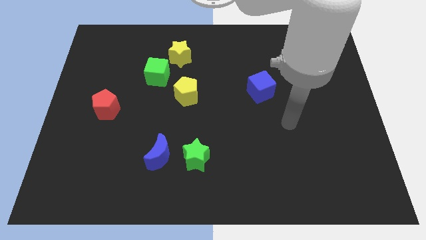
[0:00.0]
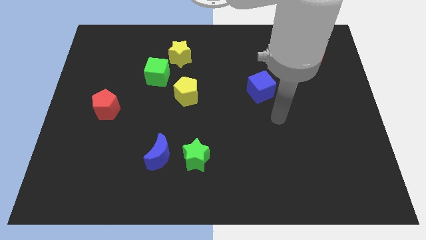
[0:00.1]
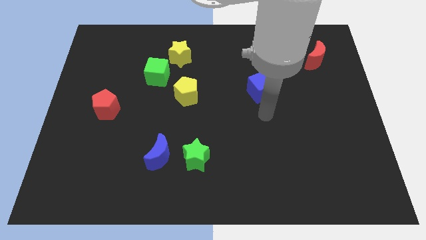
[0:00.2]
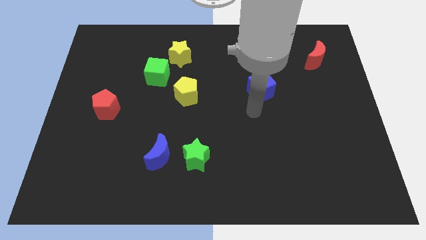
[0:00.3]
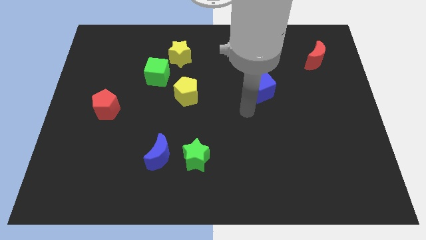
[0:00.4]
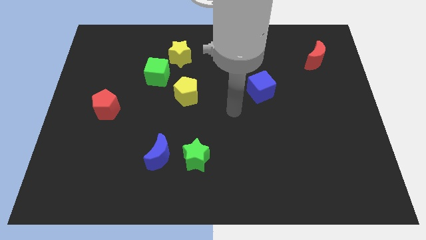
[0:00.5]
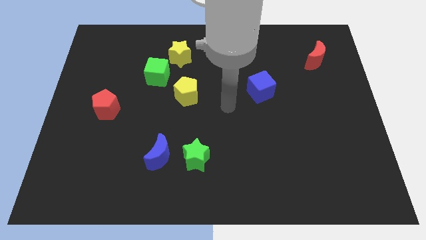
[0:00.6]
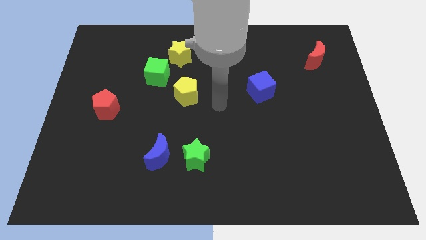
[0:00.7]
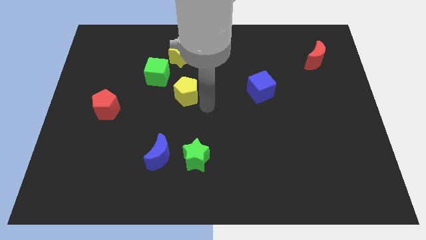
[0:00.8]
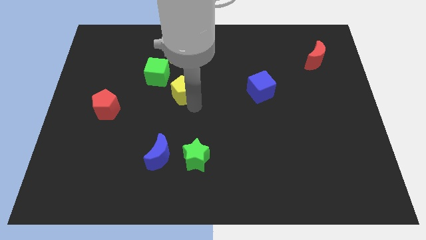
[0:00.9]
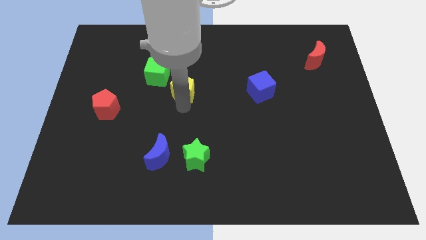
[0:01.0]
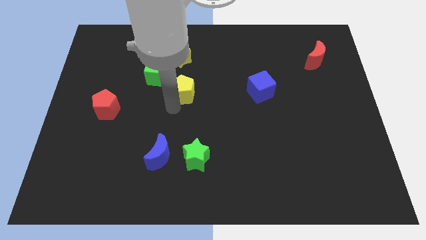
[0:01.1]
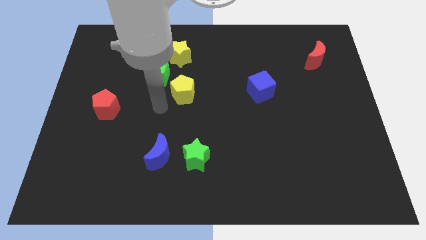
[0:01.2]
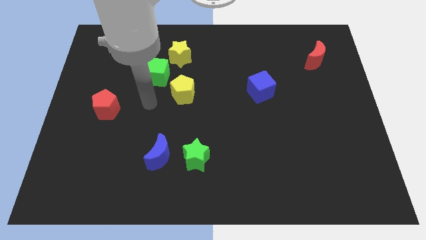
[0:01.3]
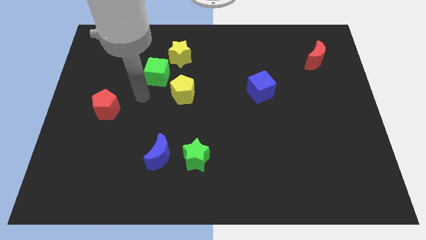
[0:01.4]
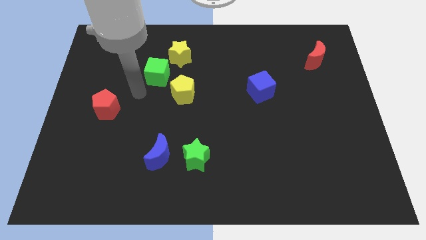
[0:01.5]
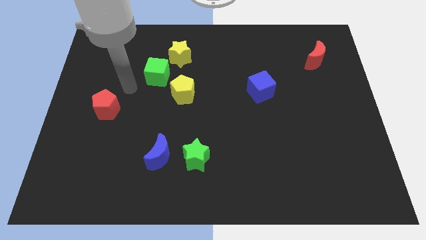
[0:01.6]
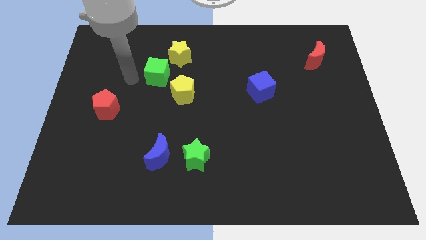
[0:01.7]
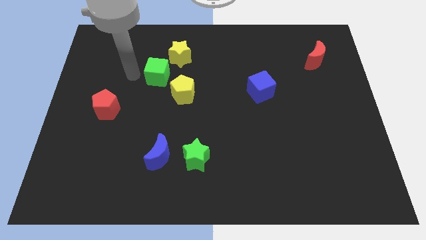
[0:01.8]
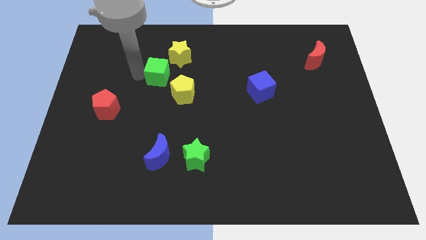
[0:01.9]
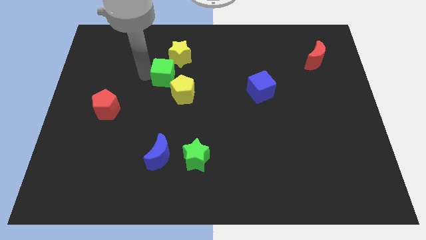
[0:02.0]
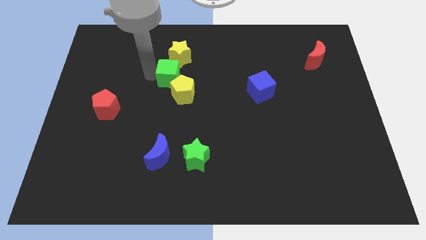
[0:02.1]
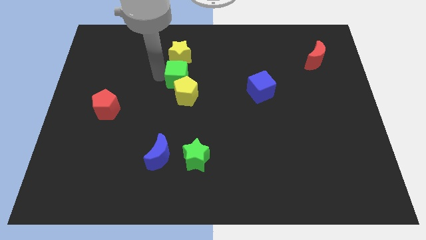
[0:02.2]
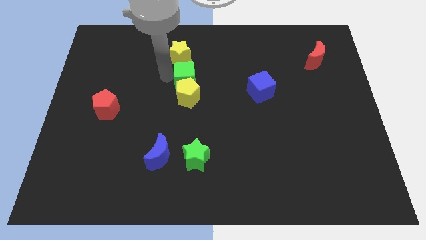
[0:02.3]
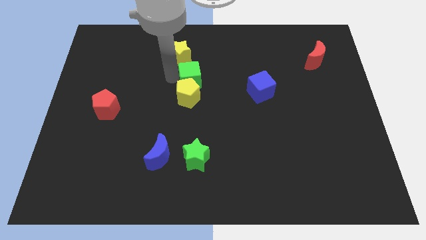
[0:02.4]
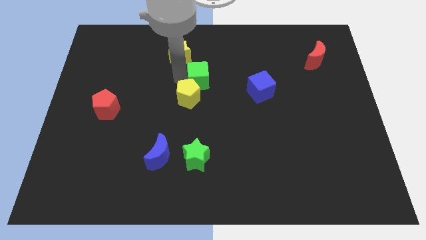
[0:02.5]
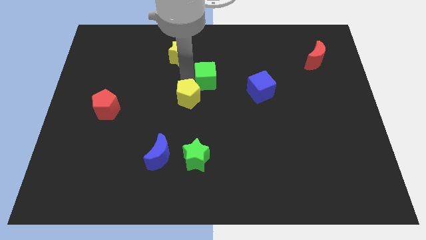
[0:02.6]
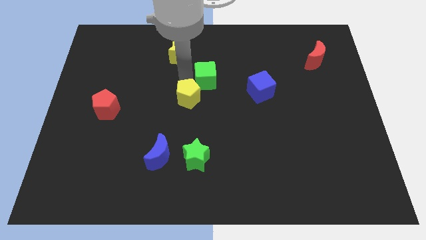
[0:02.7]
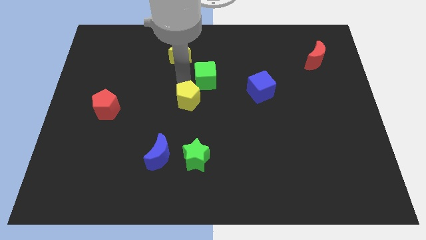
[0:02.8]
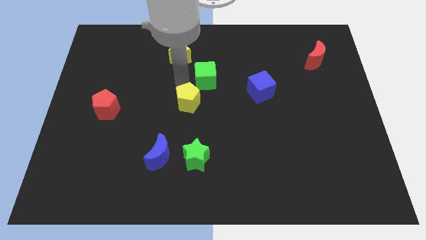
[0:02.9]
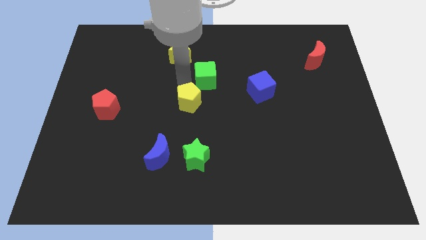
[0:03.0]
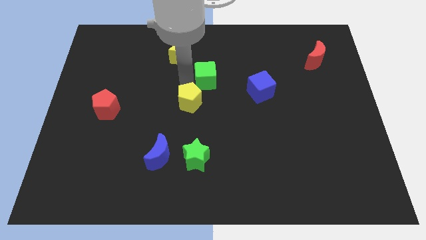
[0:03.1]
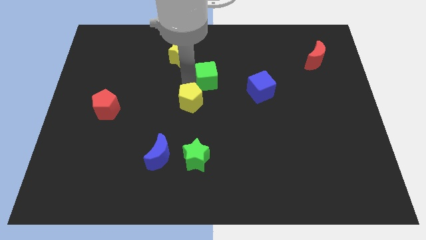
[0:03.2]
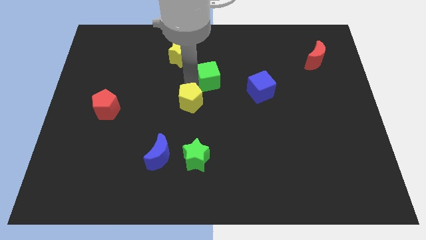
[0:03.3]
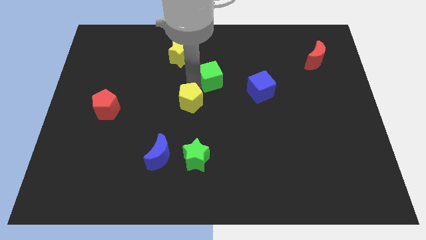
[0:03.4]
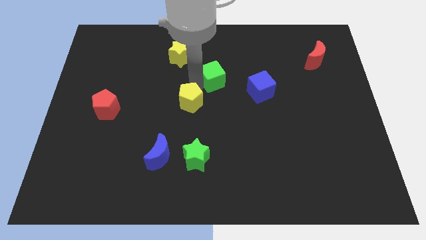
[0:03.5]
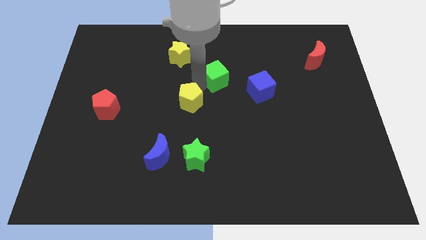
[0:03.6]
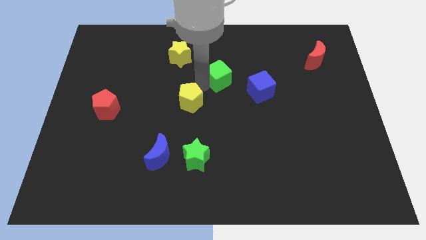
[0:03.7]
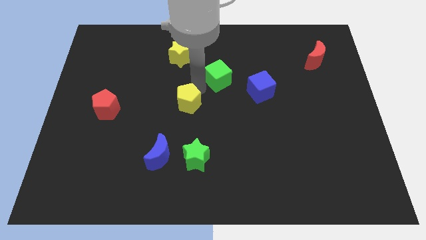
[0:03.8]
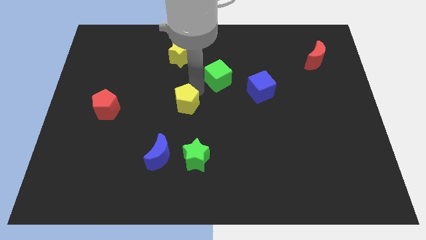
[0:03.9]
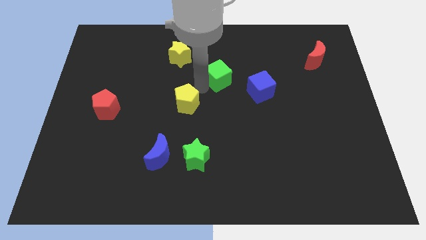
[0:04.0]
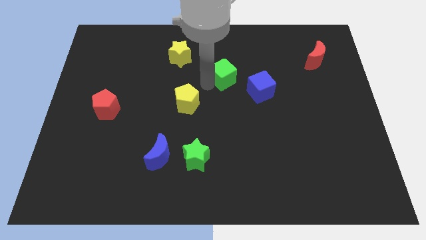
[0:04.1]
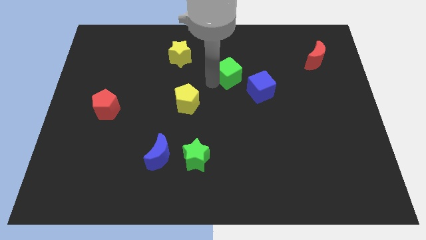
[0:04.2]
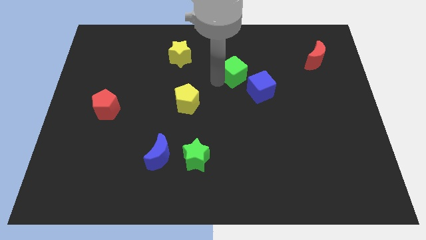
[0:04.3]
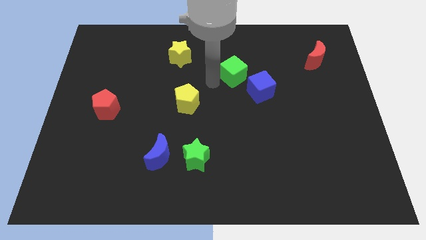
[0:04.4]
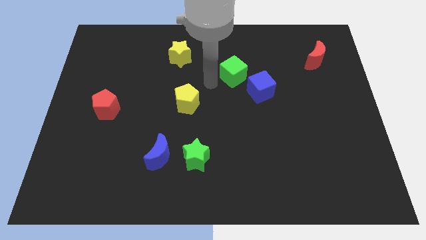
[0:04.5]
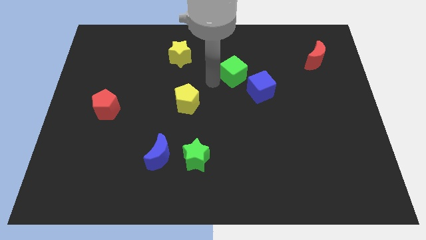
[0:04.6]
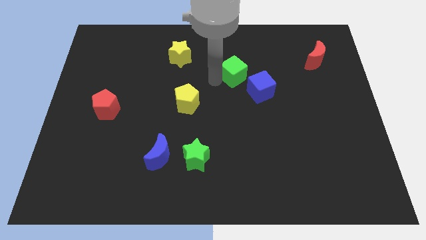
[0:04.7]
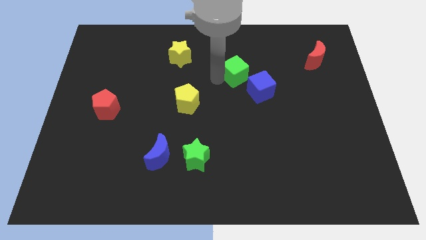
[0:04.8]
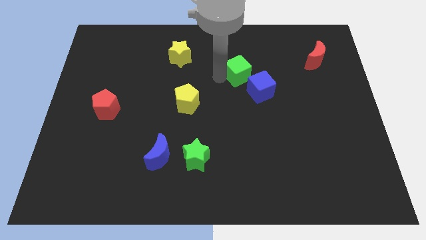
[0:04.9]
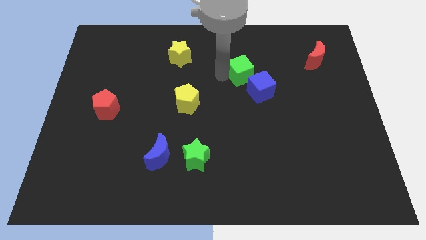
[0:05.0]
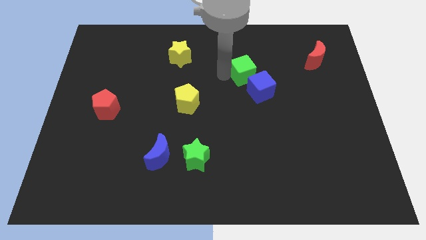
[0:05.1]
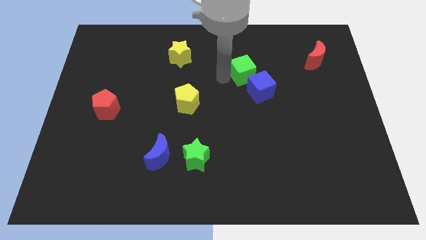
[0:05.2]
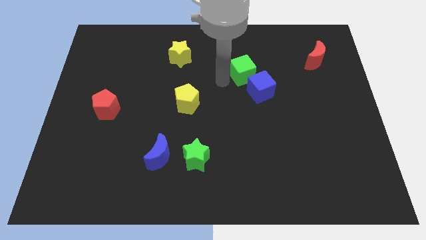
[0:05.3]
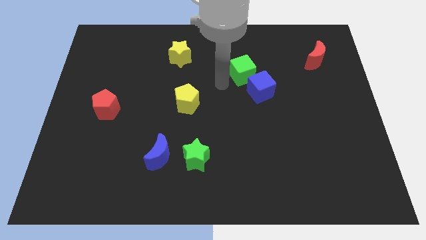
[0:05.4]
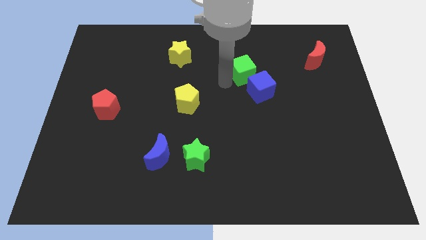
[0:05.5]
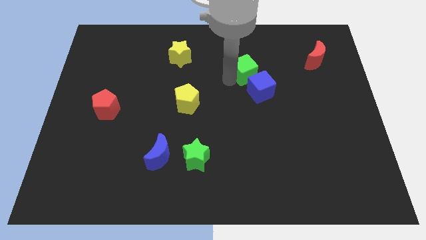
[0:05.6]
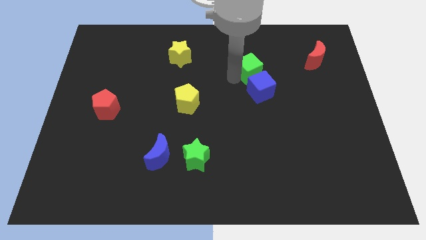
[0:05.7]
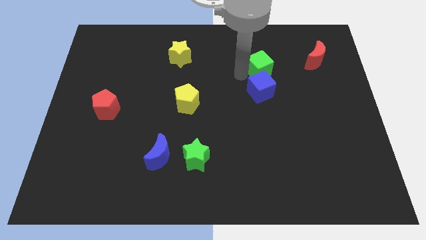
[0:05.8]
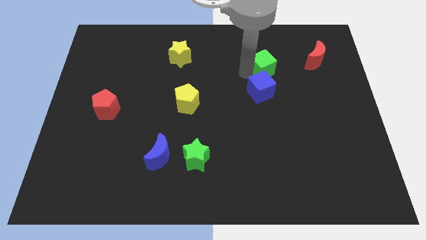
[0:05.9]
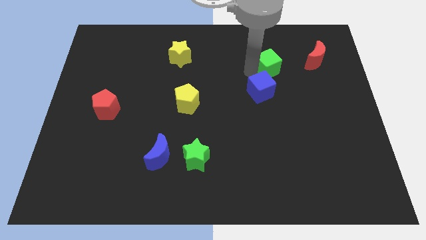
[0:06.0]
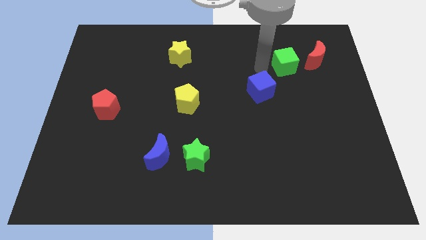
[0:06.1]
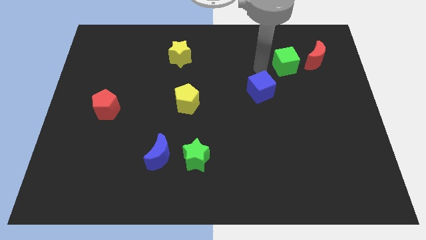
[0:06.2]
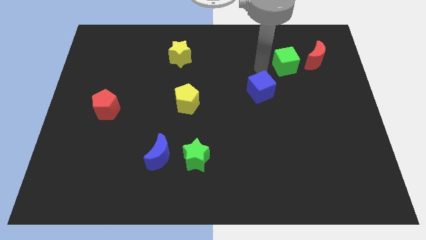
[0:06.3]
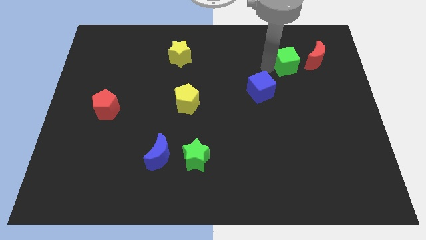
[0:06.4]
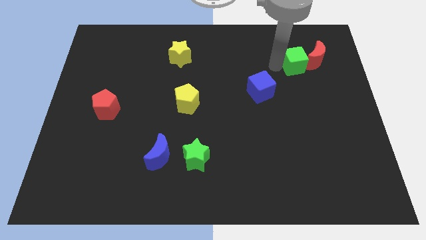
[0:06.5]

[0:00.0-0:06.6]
slide the green cube next to the red moon
